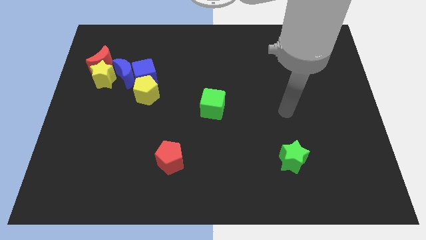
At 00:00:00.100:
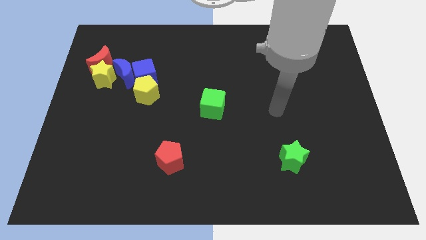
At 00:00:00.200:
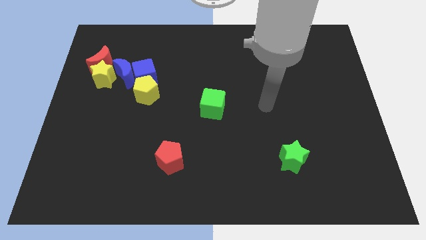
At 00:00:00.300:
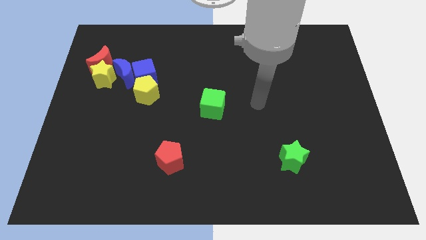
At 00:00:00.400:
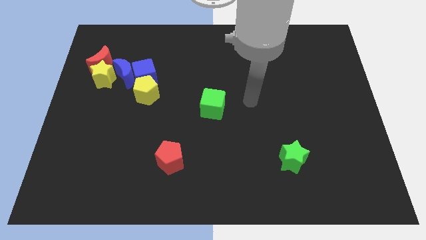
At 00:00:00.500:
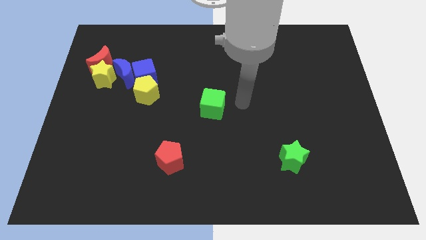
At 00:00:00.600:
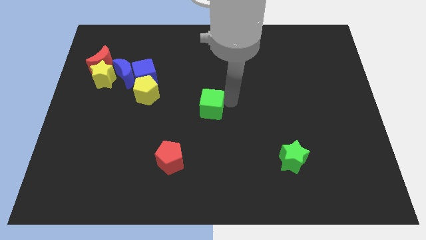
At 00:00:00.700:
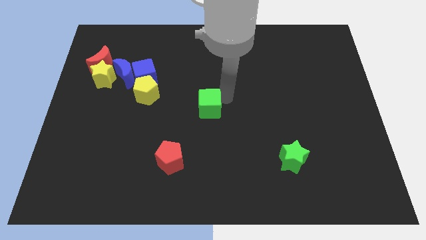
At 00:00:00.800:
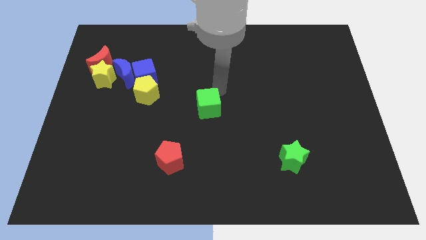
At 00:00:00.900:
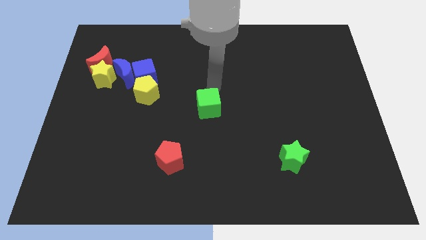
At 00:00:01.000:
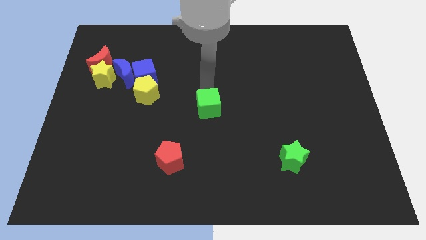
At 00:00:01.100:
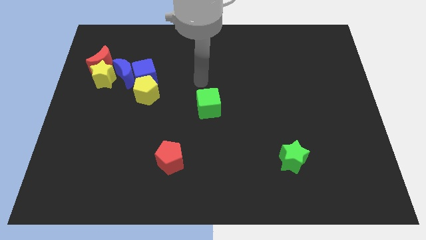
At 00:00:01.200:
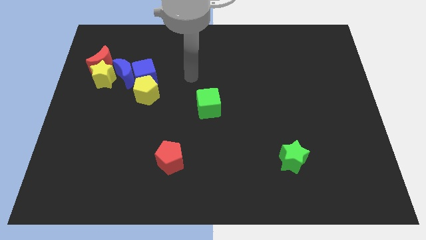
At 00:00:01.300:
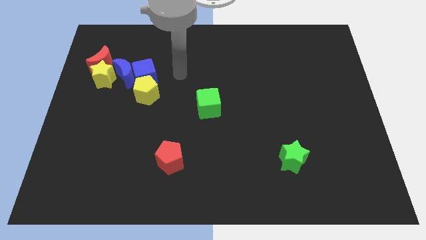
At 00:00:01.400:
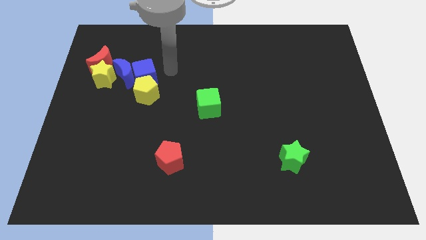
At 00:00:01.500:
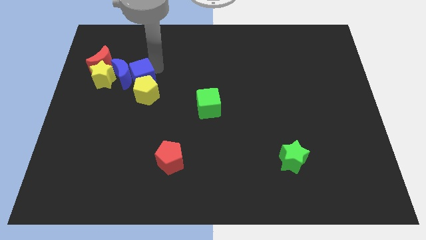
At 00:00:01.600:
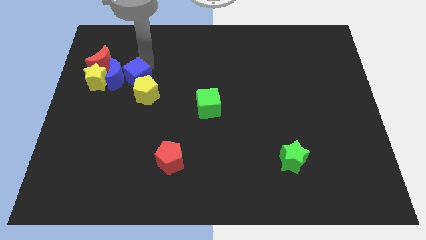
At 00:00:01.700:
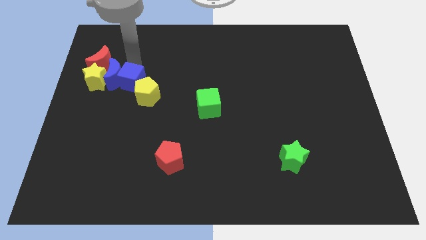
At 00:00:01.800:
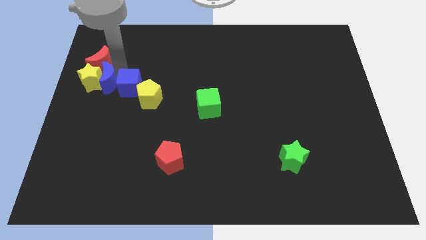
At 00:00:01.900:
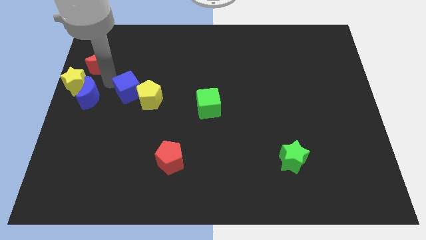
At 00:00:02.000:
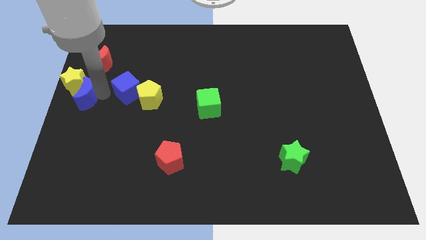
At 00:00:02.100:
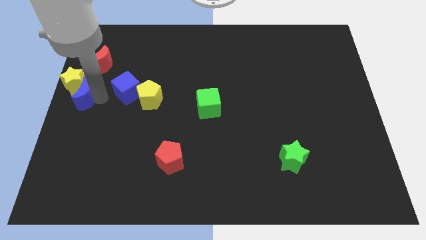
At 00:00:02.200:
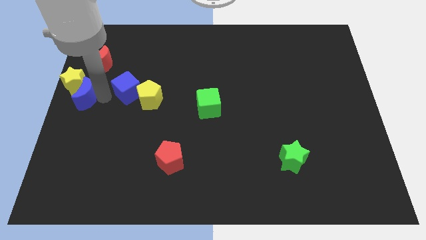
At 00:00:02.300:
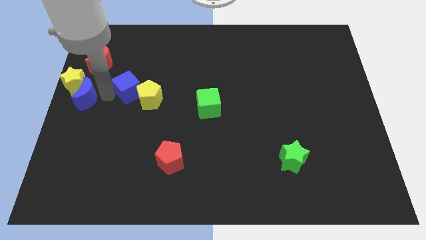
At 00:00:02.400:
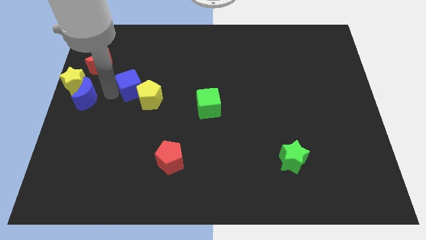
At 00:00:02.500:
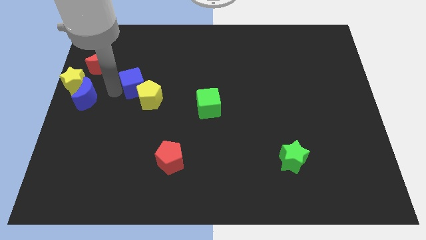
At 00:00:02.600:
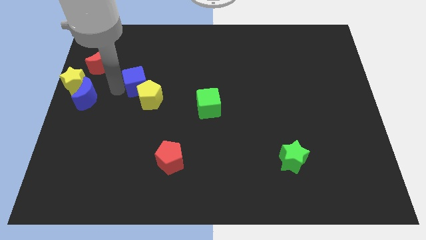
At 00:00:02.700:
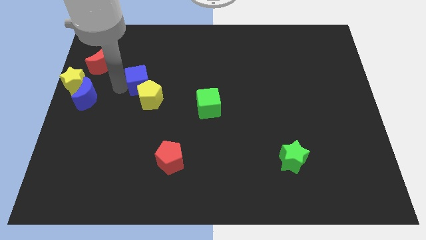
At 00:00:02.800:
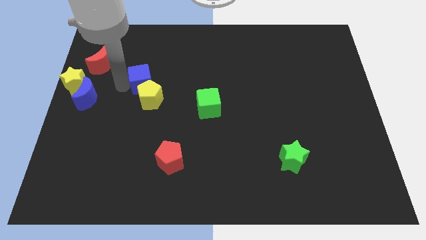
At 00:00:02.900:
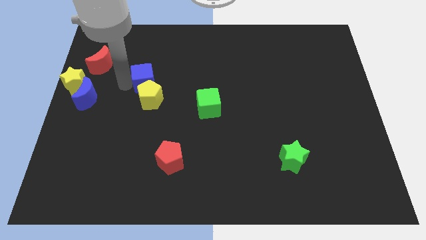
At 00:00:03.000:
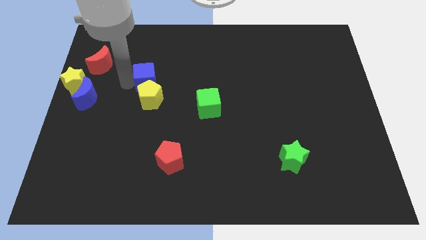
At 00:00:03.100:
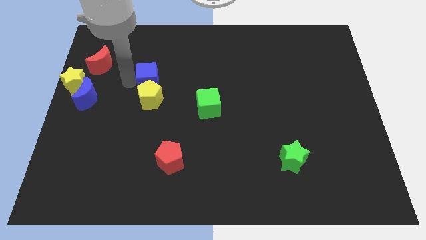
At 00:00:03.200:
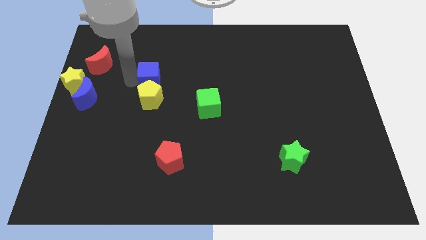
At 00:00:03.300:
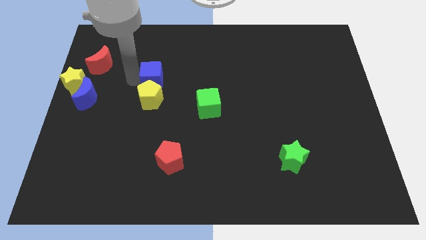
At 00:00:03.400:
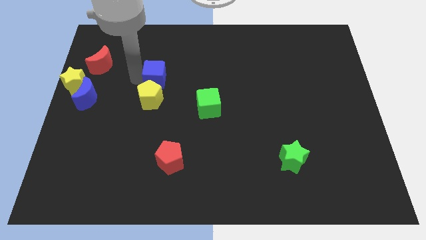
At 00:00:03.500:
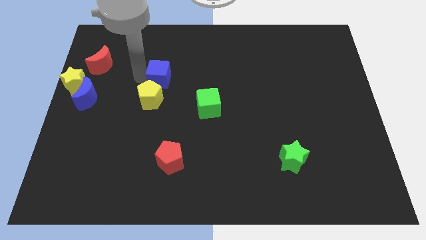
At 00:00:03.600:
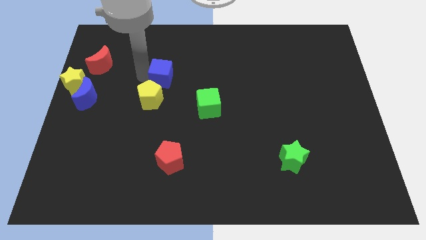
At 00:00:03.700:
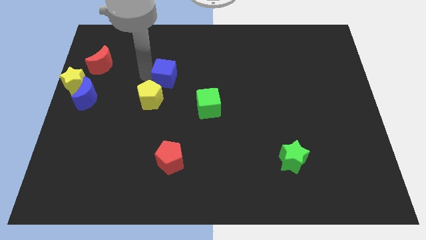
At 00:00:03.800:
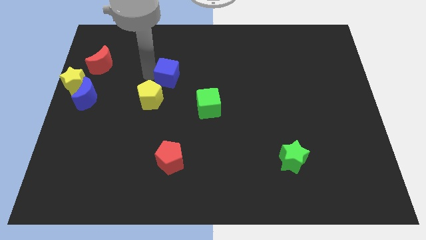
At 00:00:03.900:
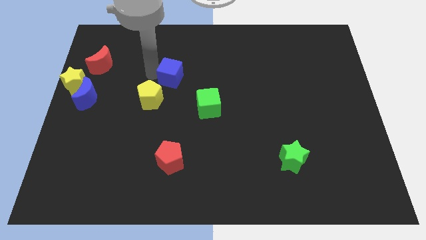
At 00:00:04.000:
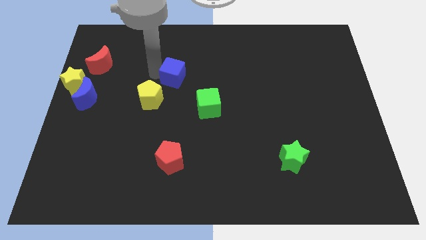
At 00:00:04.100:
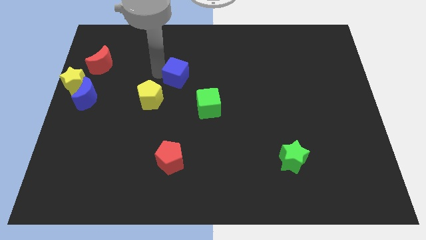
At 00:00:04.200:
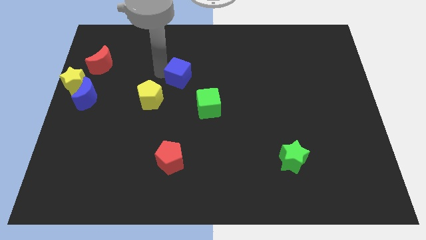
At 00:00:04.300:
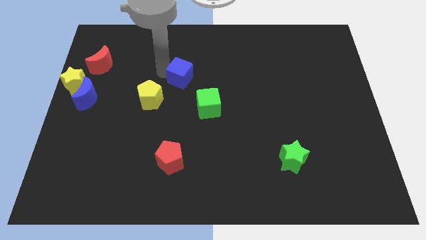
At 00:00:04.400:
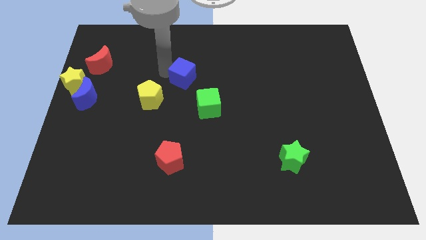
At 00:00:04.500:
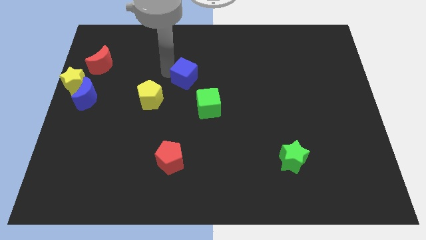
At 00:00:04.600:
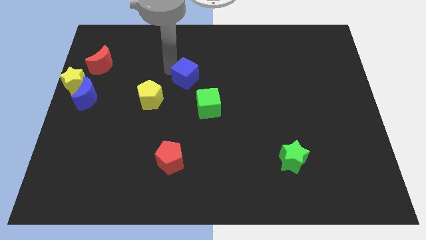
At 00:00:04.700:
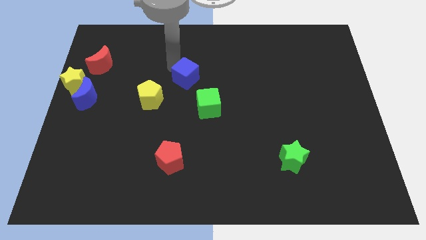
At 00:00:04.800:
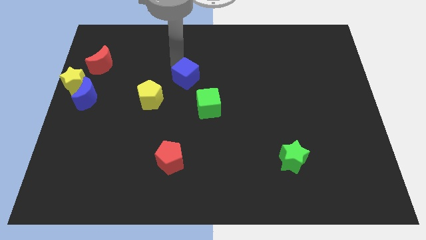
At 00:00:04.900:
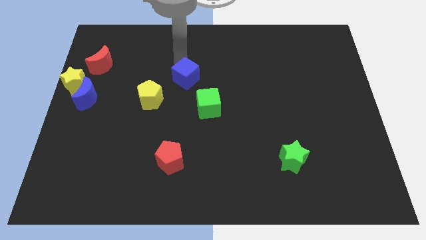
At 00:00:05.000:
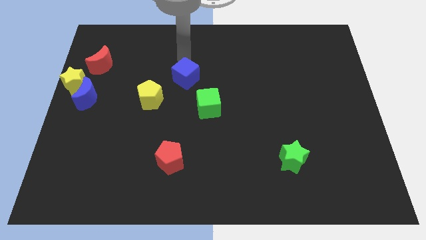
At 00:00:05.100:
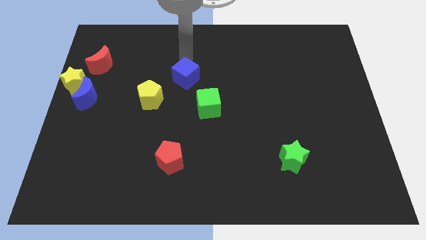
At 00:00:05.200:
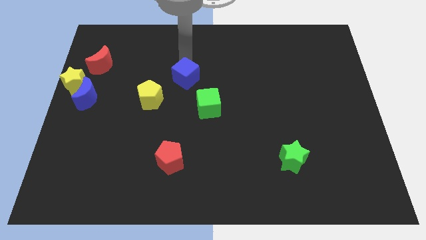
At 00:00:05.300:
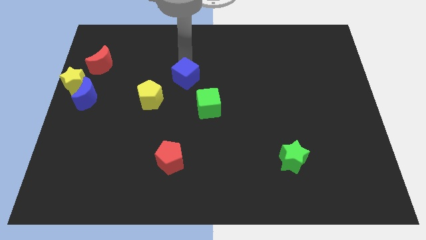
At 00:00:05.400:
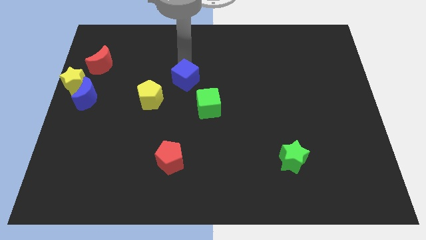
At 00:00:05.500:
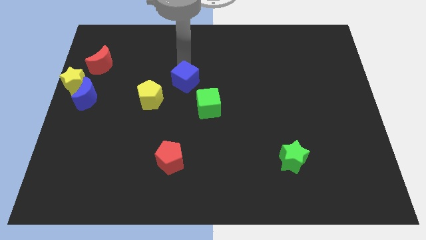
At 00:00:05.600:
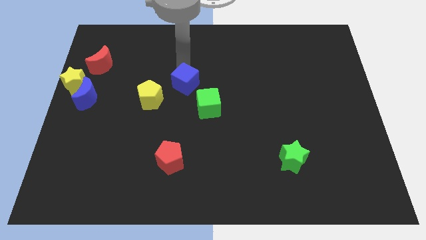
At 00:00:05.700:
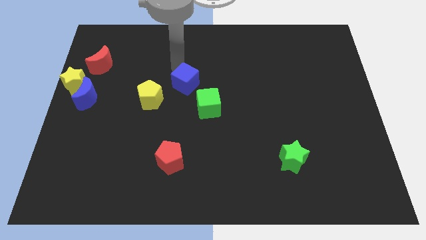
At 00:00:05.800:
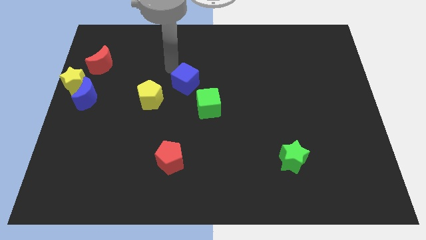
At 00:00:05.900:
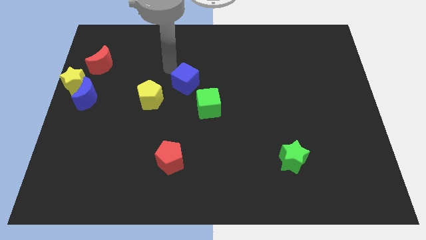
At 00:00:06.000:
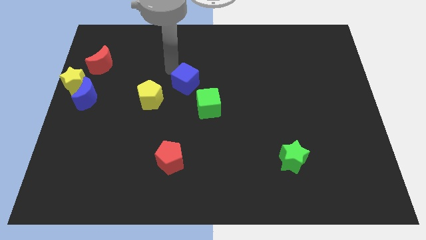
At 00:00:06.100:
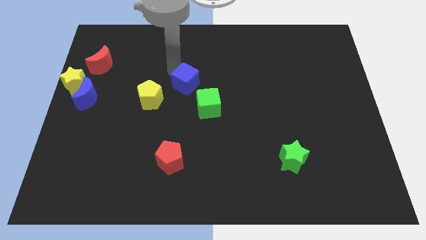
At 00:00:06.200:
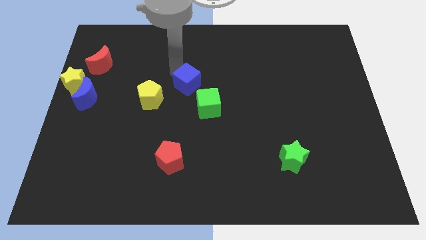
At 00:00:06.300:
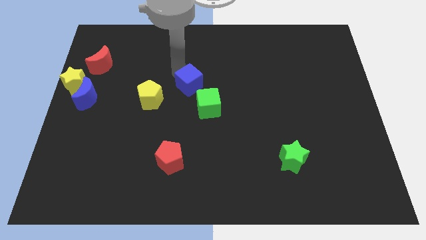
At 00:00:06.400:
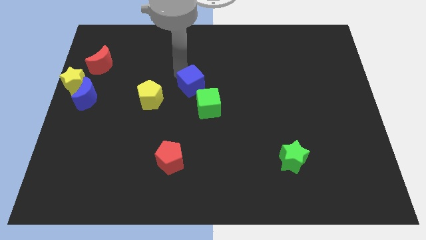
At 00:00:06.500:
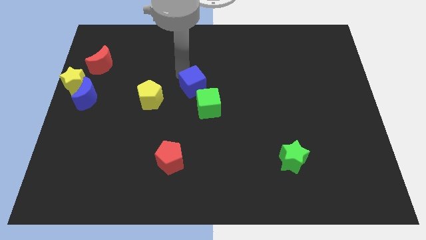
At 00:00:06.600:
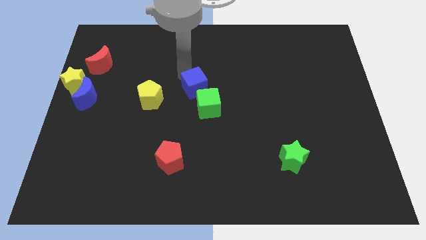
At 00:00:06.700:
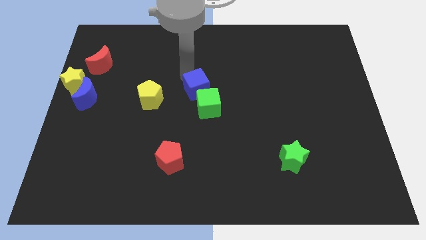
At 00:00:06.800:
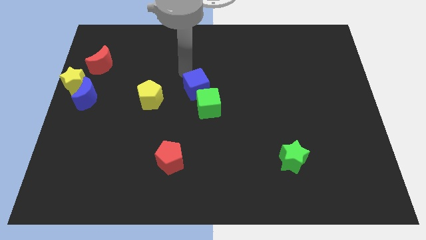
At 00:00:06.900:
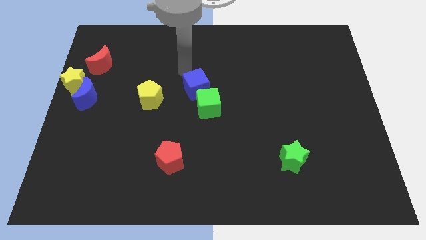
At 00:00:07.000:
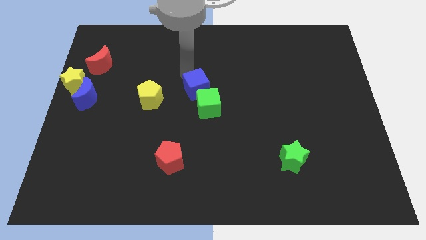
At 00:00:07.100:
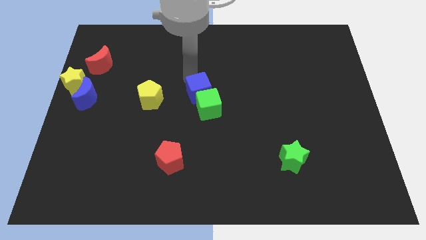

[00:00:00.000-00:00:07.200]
push the blue cube to the green cube
